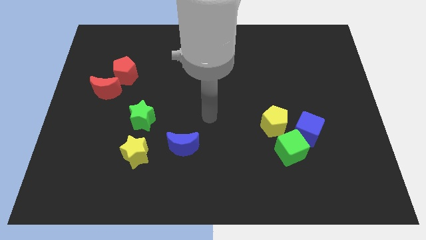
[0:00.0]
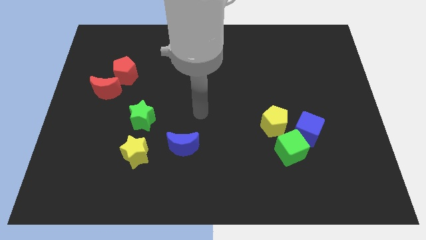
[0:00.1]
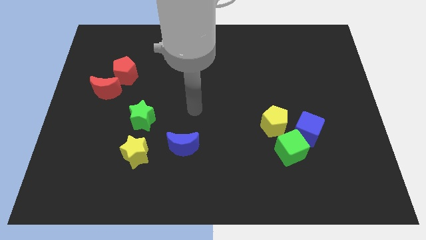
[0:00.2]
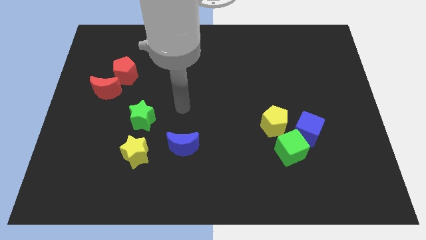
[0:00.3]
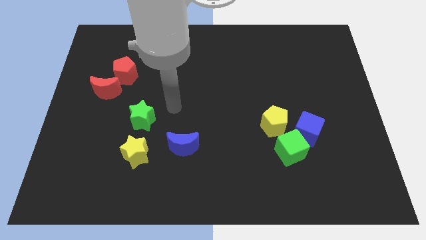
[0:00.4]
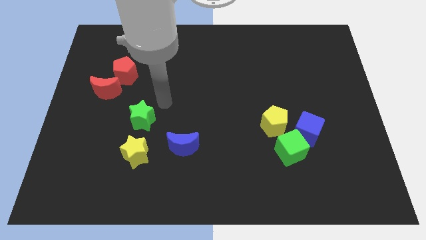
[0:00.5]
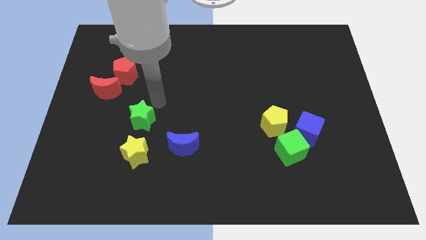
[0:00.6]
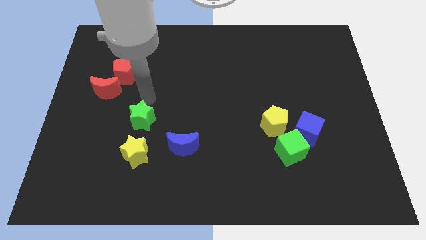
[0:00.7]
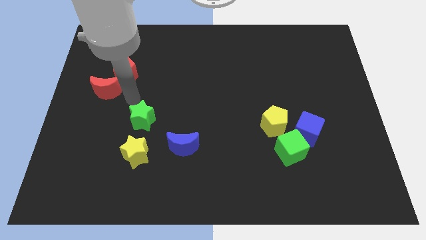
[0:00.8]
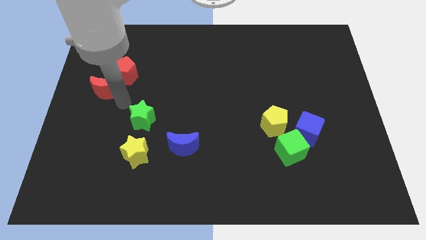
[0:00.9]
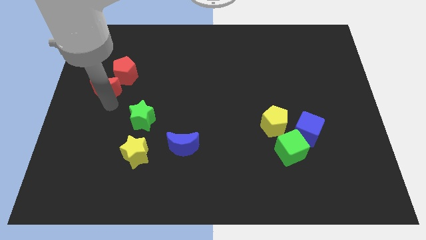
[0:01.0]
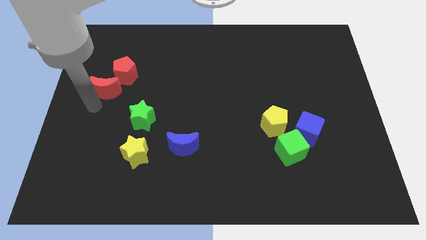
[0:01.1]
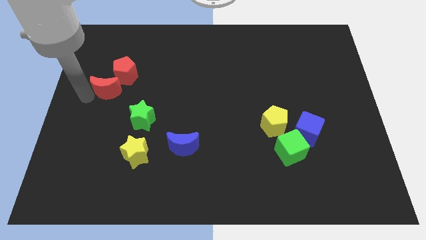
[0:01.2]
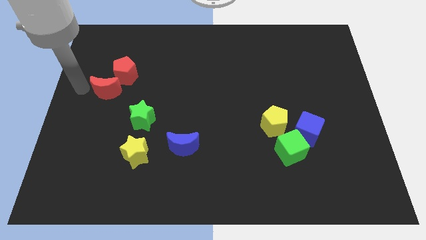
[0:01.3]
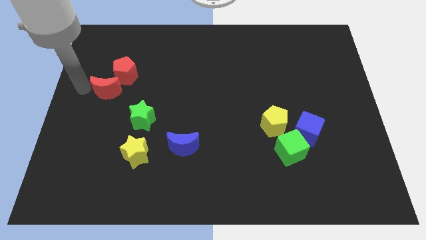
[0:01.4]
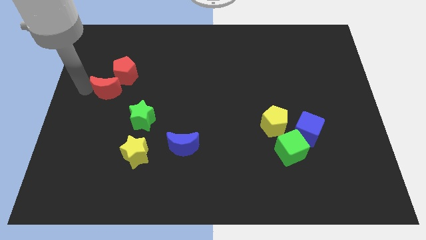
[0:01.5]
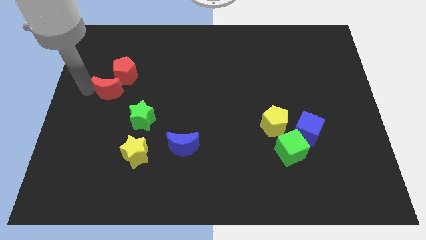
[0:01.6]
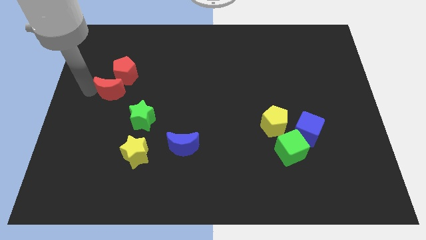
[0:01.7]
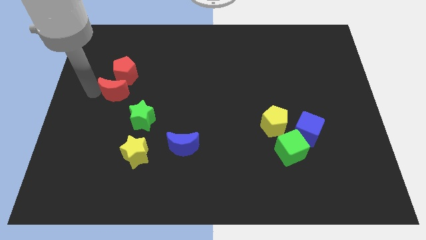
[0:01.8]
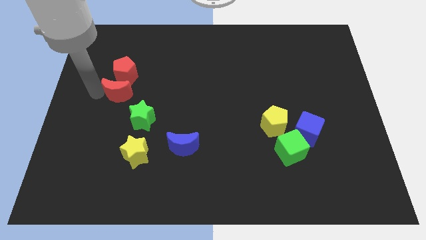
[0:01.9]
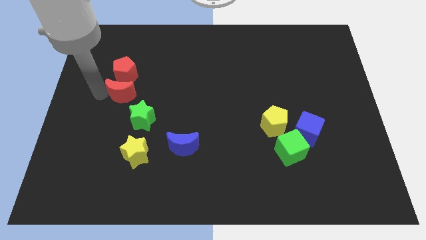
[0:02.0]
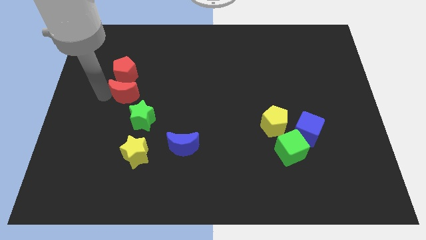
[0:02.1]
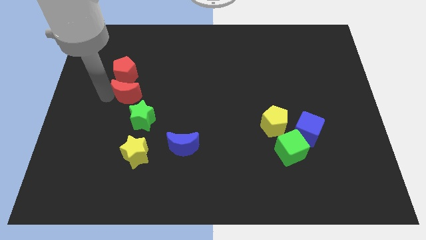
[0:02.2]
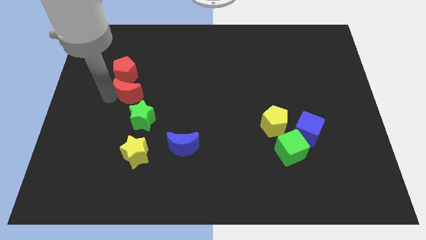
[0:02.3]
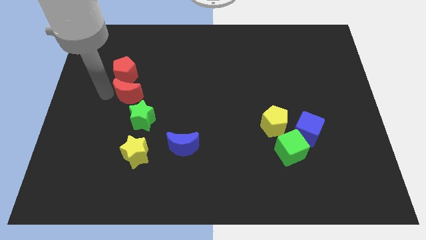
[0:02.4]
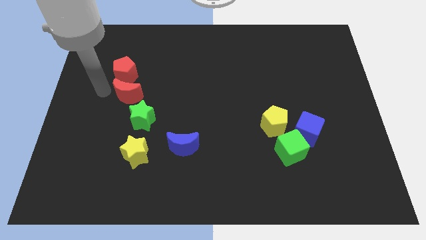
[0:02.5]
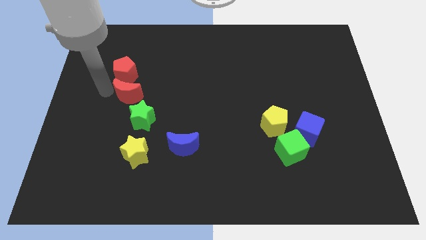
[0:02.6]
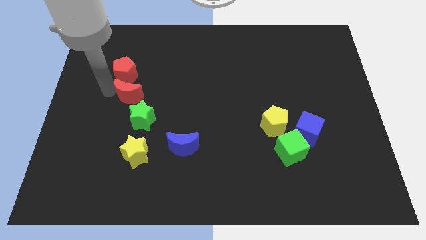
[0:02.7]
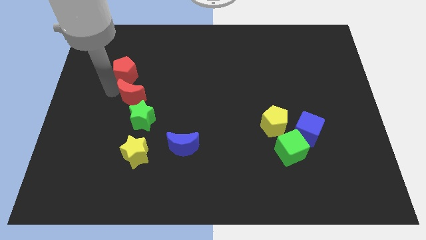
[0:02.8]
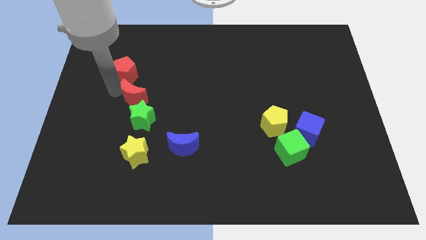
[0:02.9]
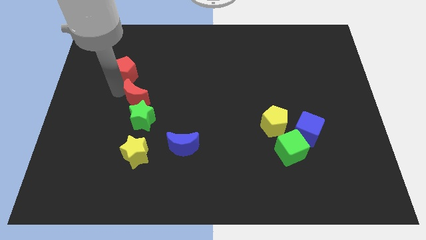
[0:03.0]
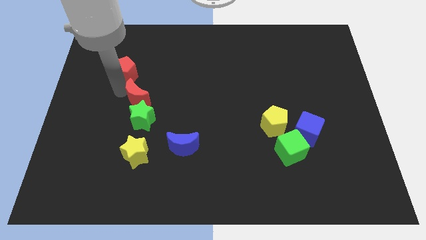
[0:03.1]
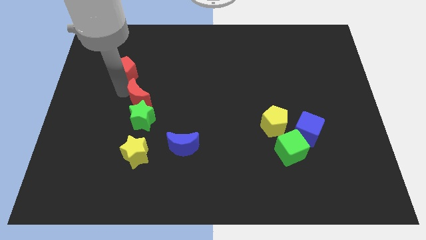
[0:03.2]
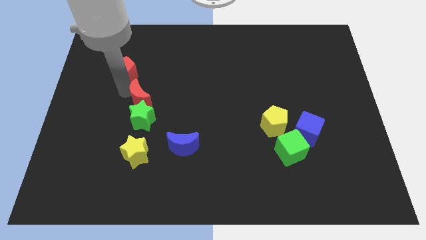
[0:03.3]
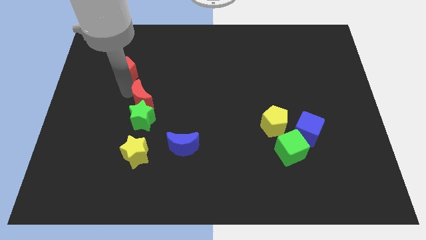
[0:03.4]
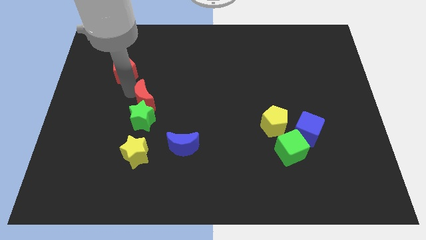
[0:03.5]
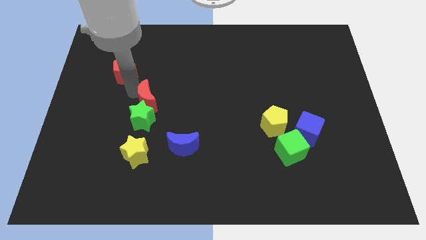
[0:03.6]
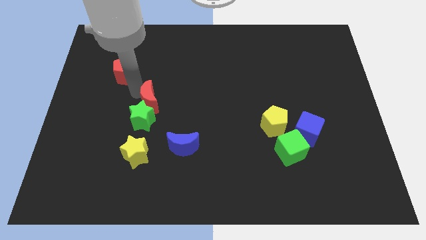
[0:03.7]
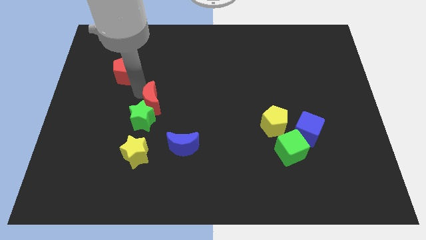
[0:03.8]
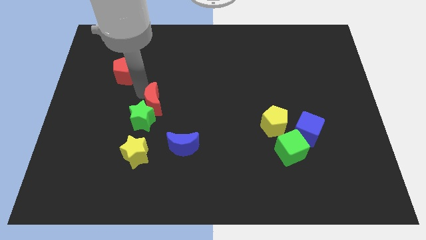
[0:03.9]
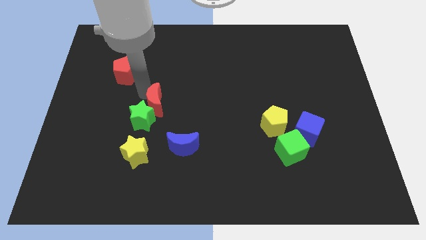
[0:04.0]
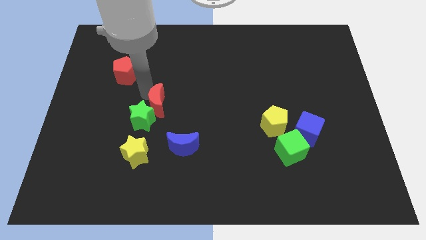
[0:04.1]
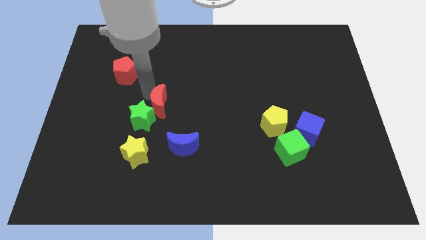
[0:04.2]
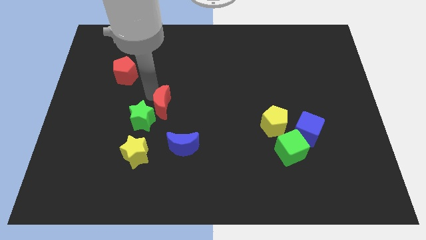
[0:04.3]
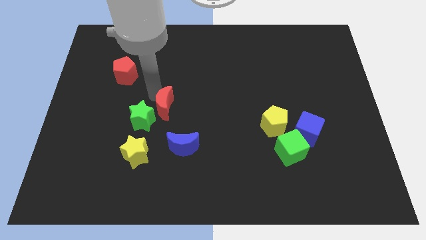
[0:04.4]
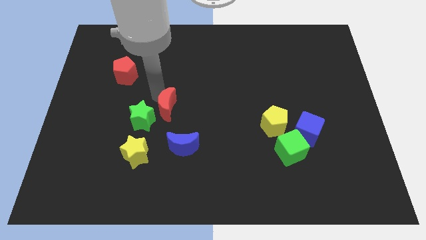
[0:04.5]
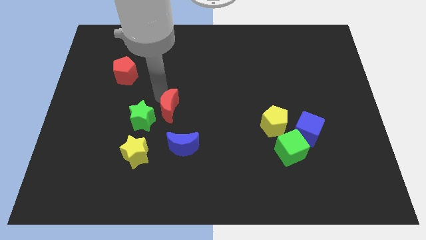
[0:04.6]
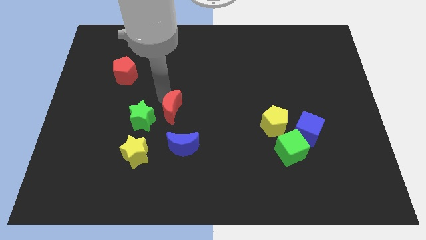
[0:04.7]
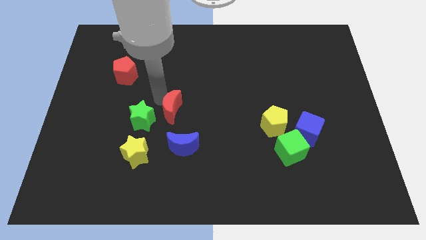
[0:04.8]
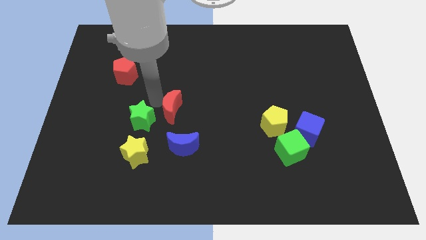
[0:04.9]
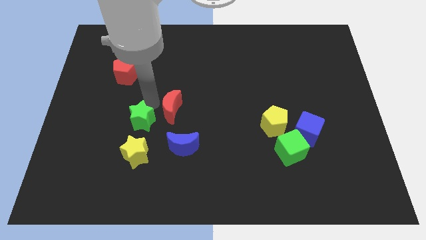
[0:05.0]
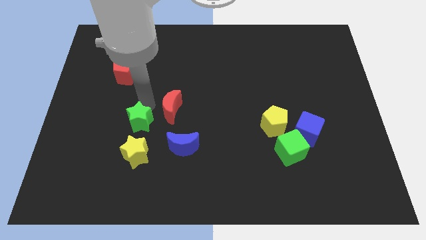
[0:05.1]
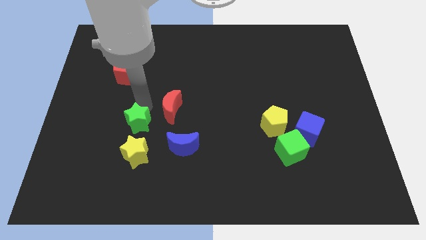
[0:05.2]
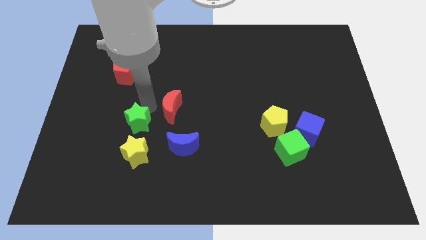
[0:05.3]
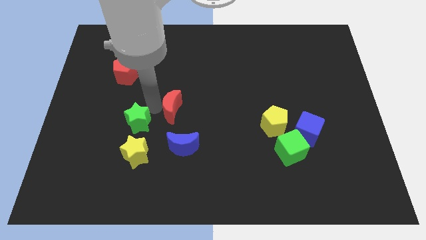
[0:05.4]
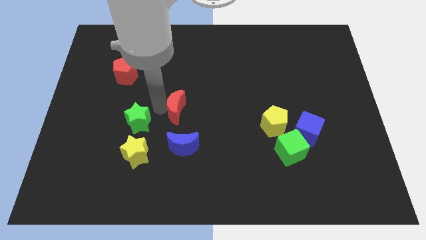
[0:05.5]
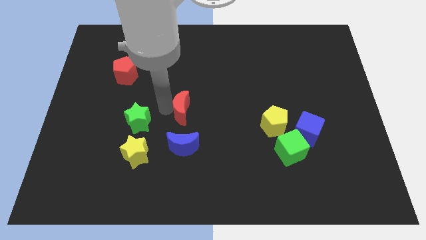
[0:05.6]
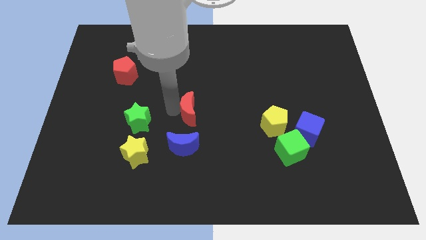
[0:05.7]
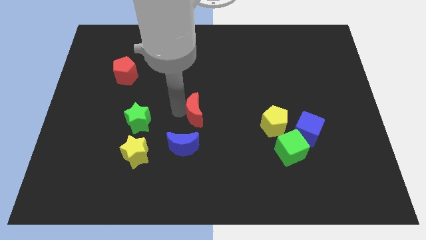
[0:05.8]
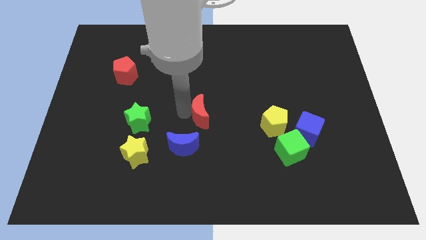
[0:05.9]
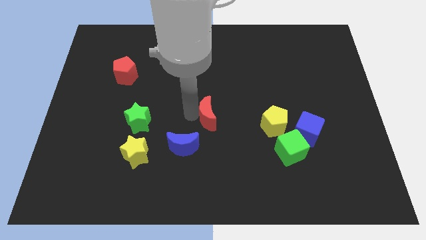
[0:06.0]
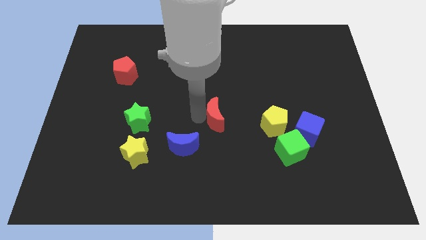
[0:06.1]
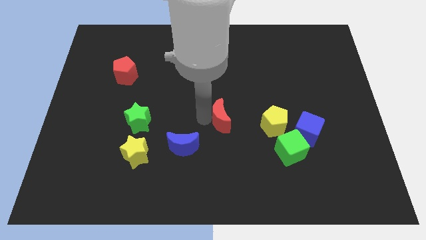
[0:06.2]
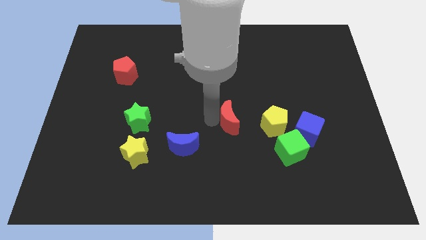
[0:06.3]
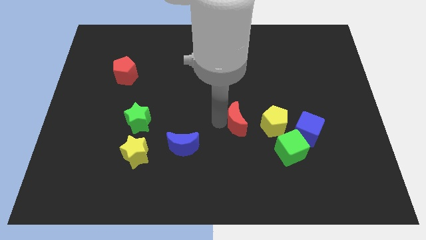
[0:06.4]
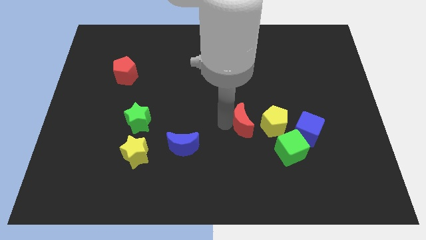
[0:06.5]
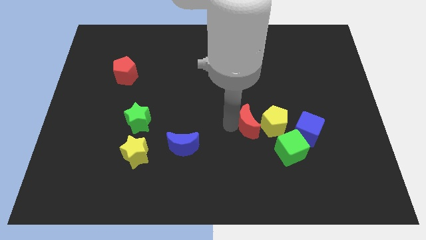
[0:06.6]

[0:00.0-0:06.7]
slide the red moon close to the yellow pentagon

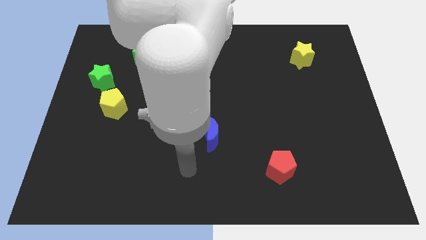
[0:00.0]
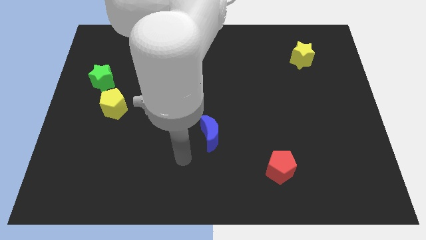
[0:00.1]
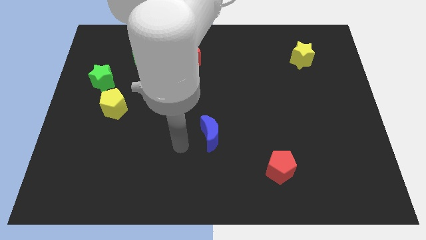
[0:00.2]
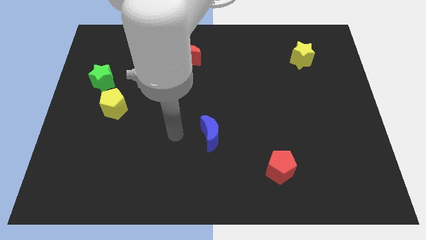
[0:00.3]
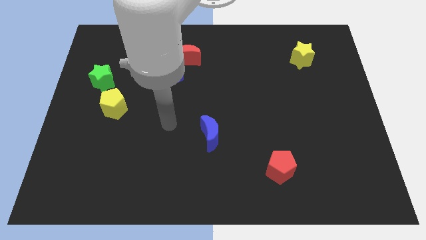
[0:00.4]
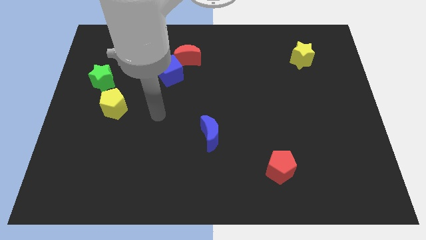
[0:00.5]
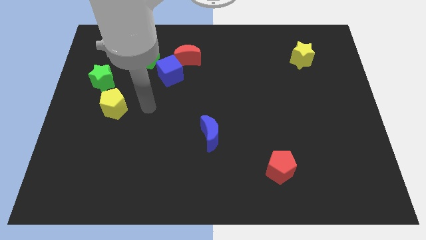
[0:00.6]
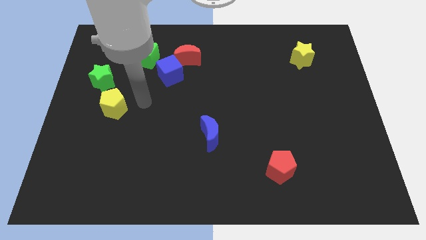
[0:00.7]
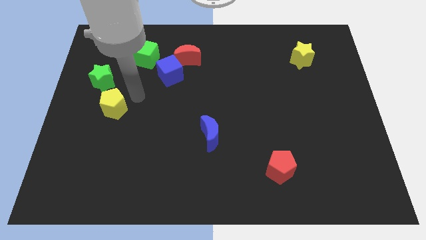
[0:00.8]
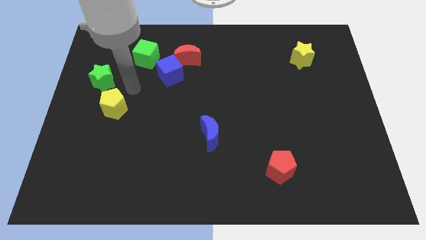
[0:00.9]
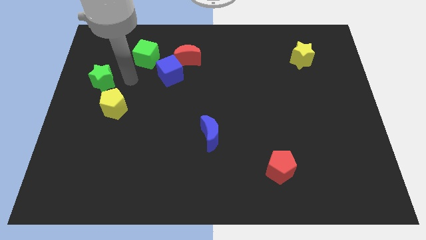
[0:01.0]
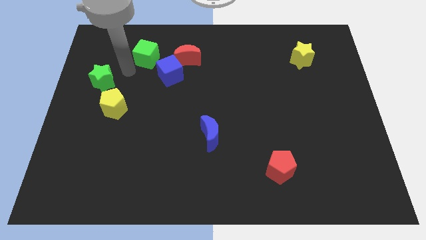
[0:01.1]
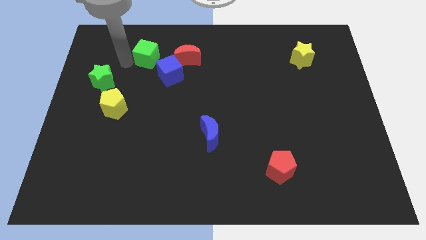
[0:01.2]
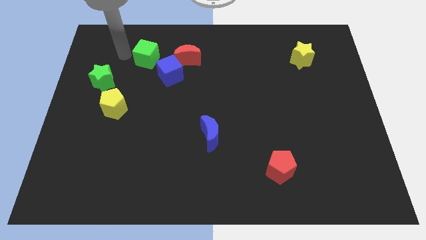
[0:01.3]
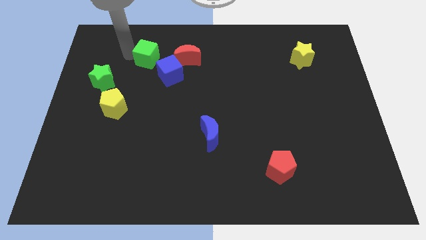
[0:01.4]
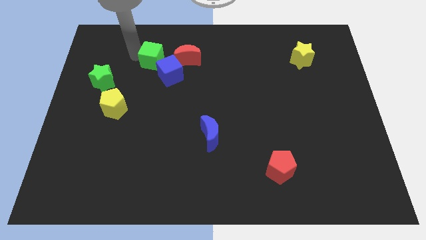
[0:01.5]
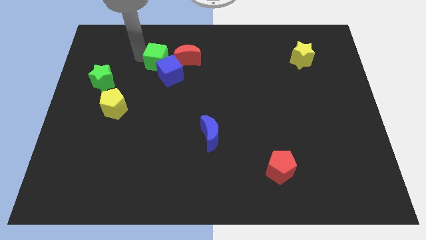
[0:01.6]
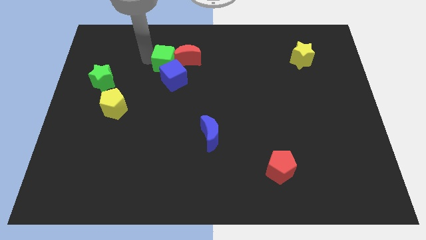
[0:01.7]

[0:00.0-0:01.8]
push the green cube close to the red moon
